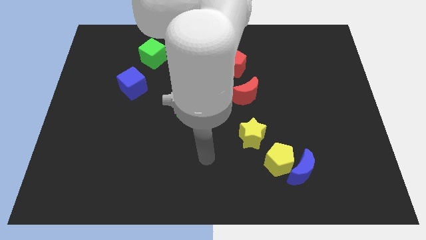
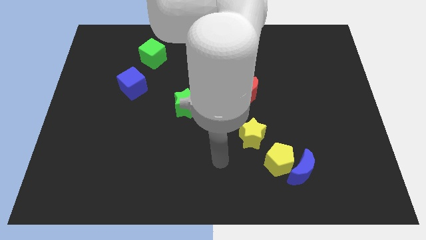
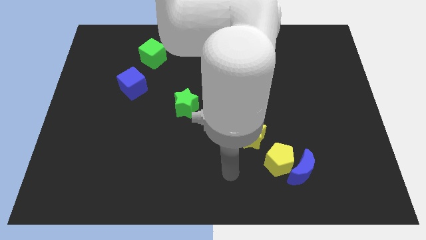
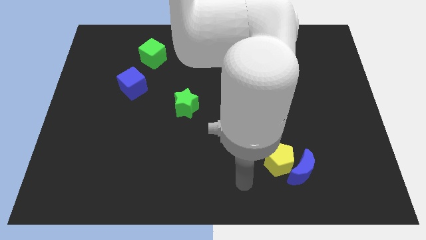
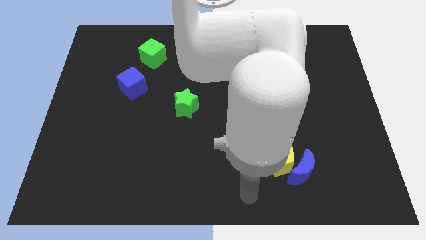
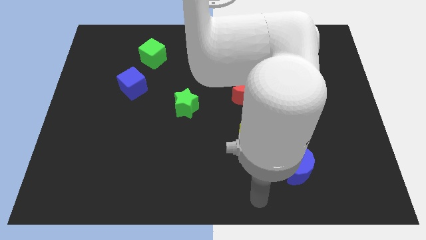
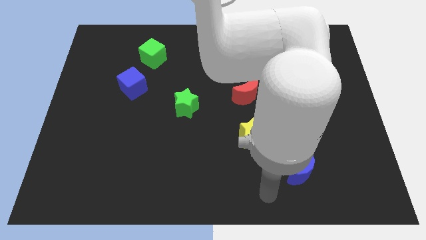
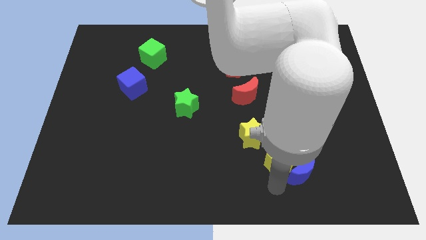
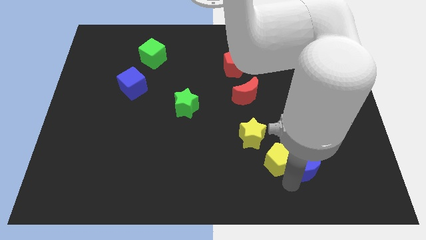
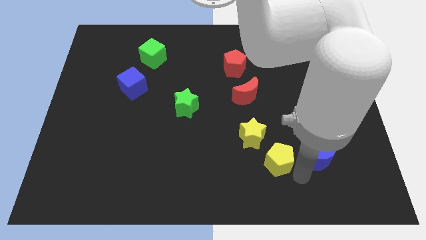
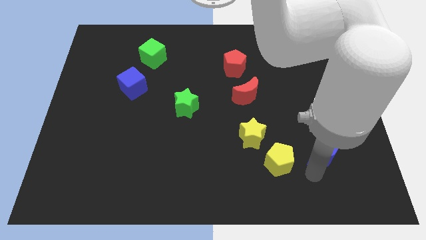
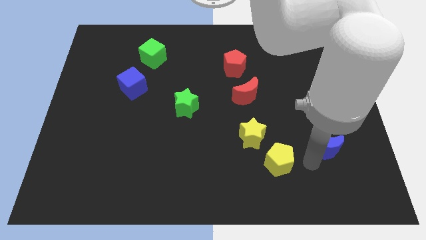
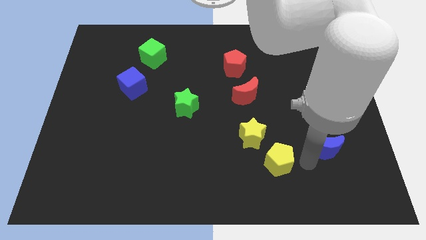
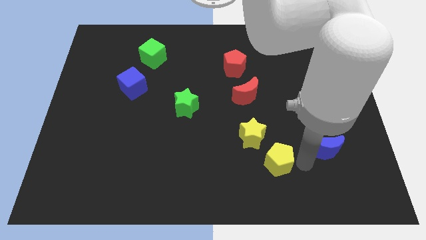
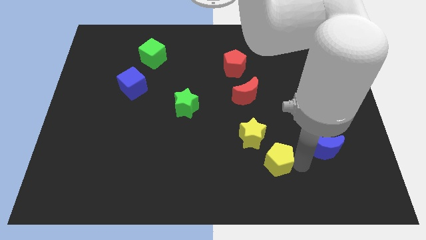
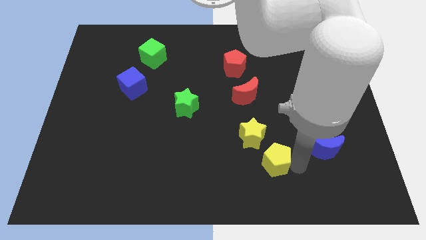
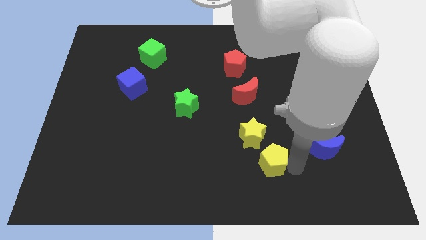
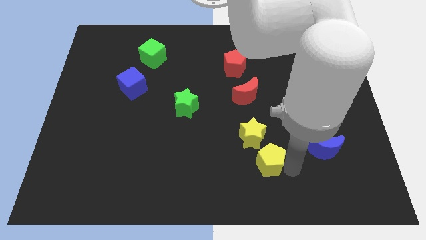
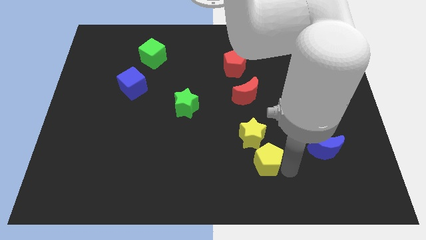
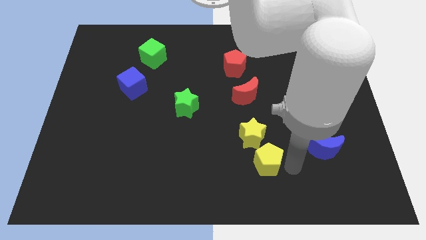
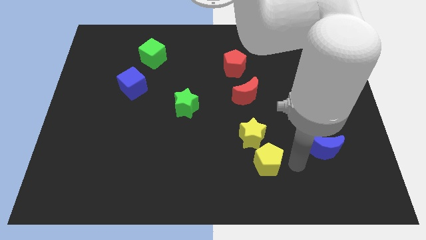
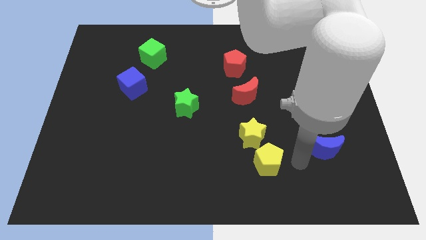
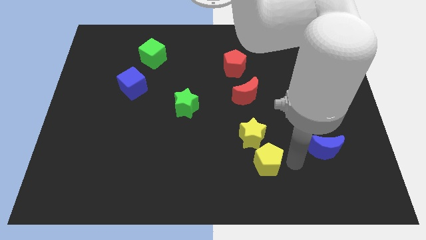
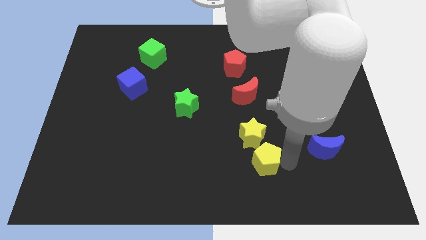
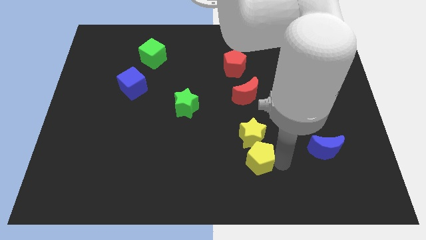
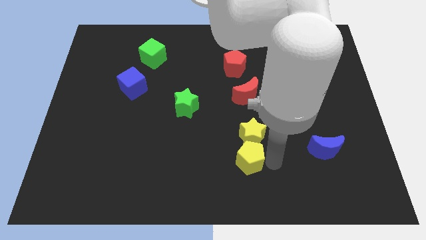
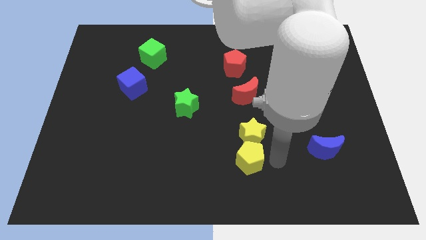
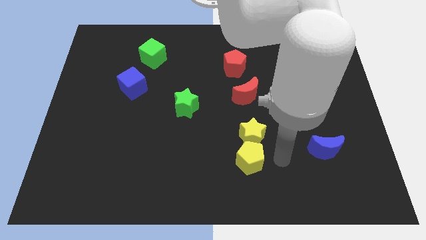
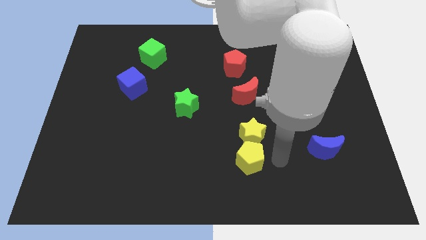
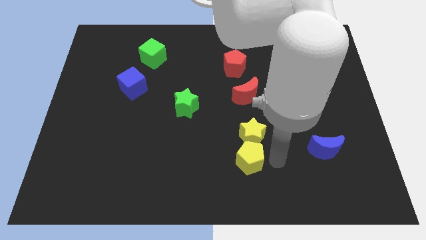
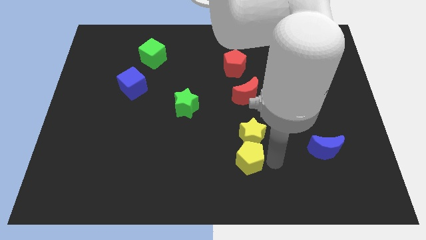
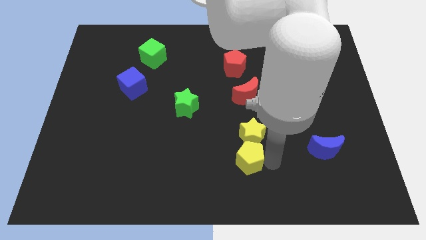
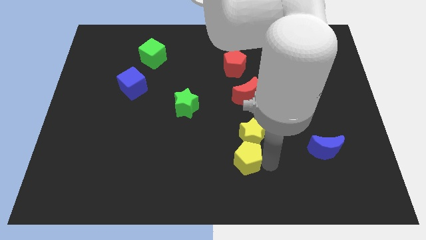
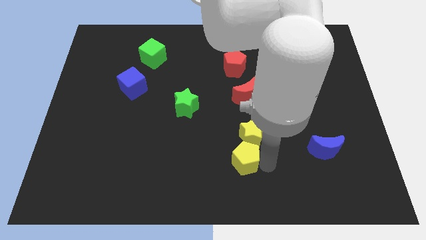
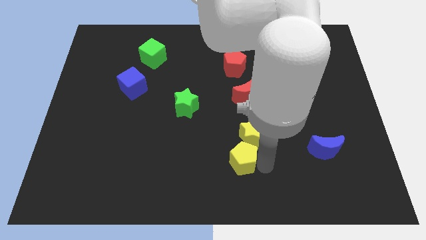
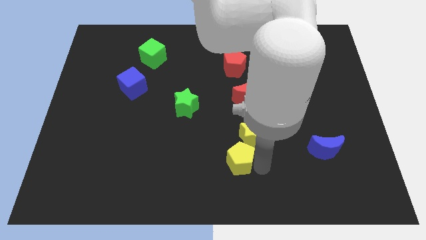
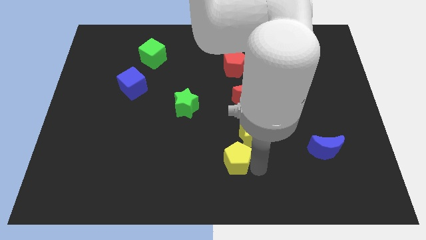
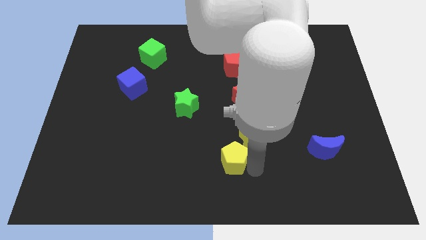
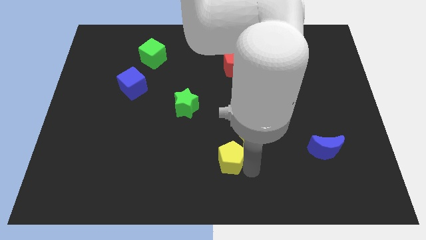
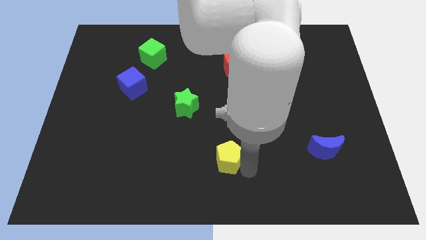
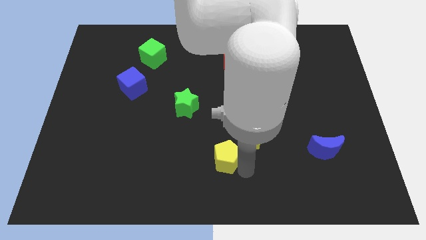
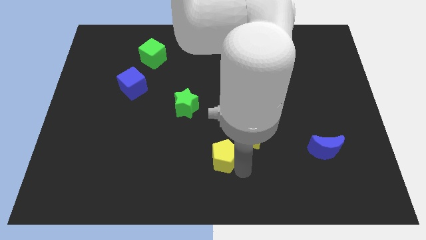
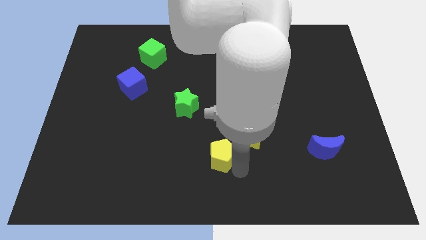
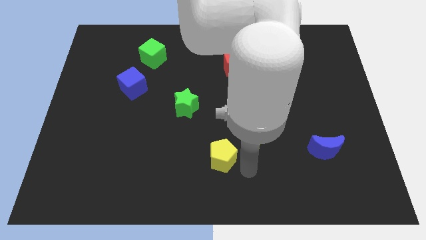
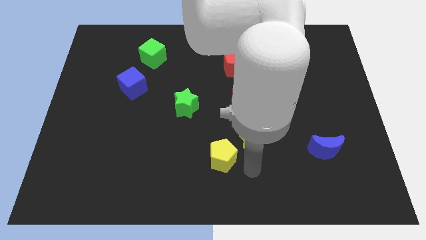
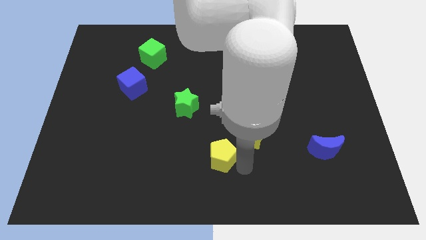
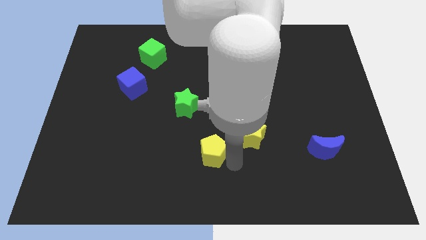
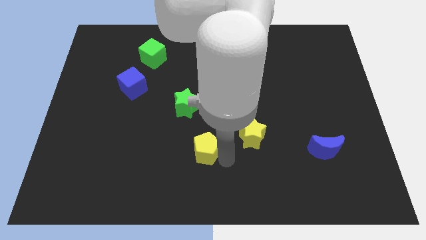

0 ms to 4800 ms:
put the yellow pentagon to the bottom side of the green star

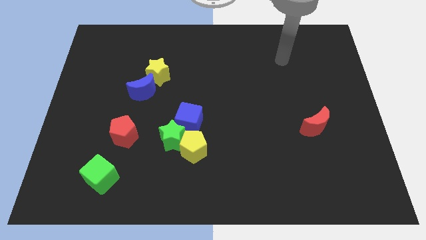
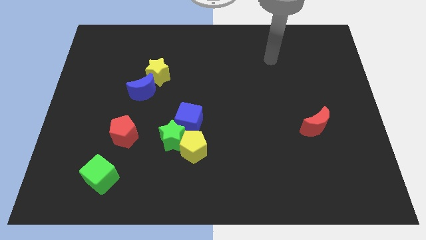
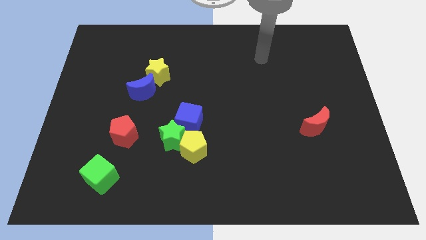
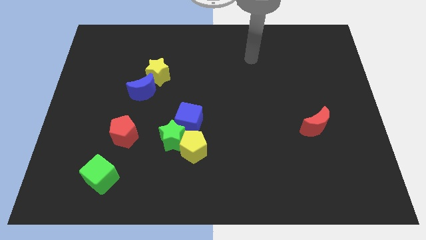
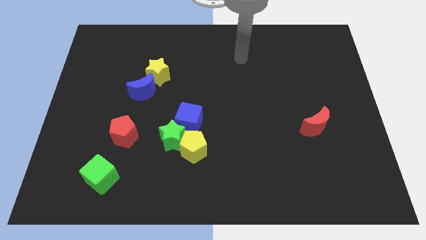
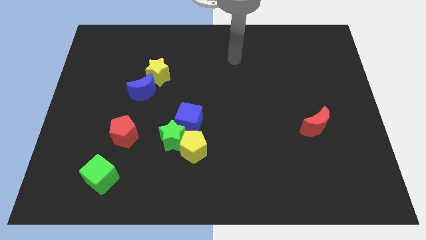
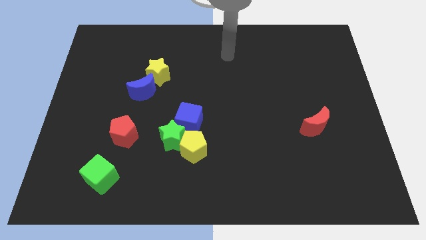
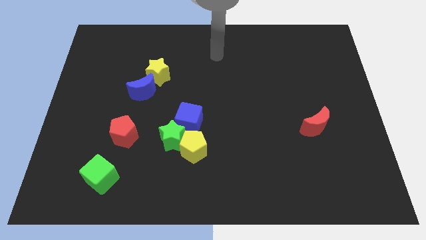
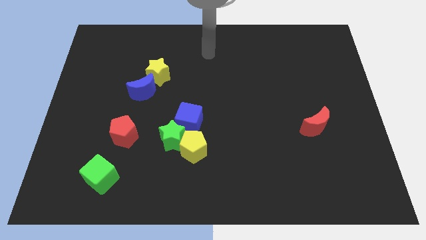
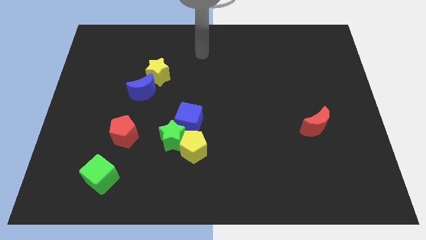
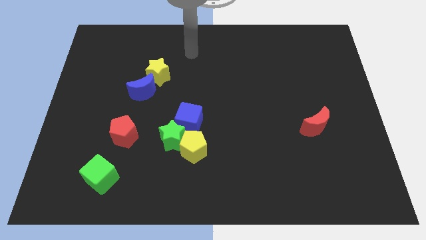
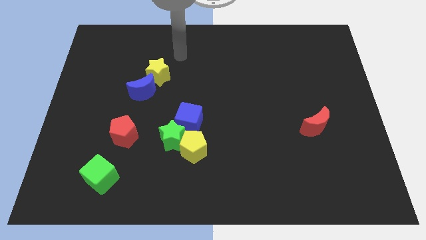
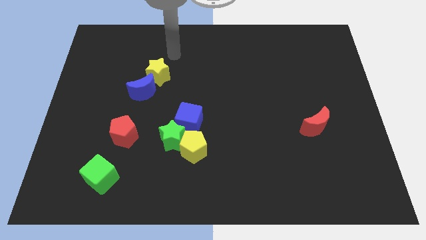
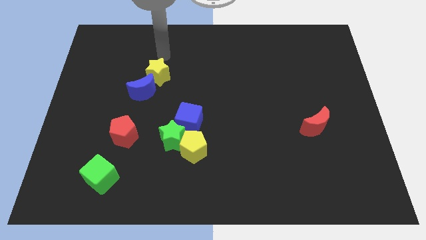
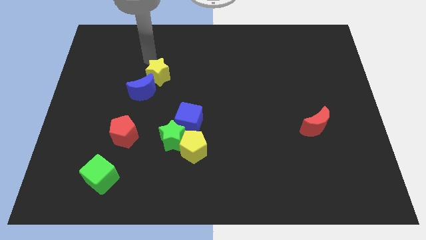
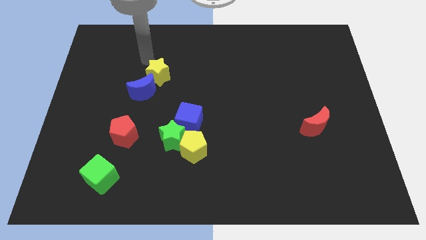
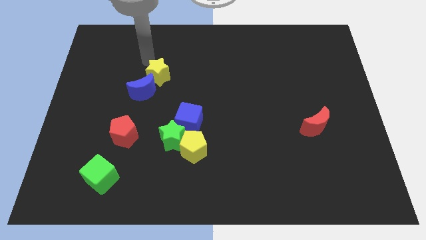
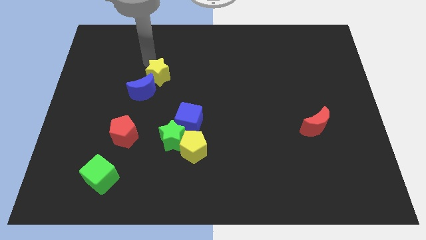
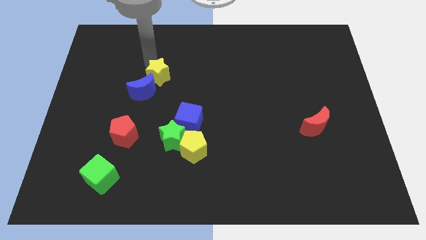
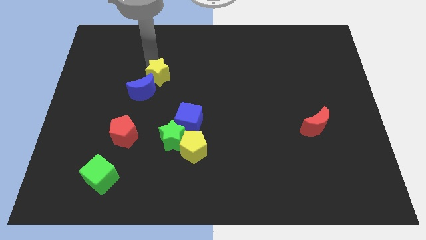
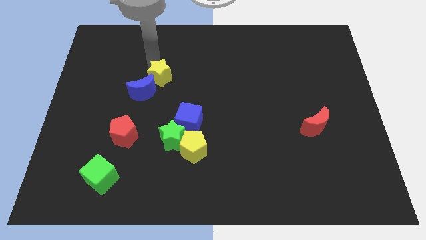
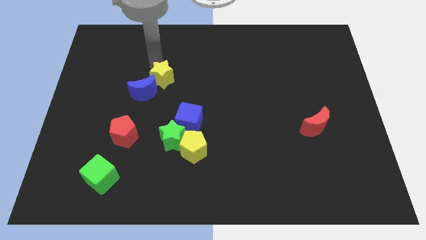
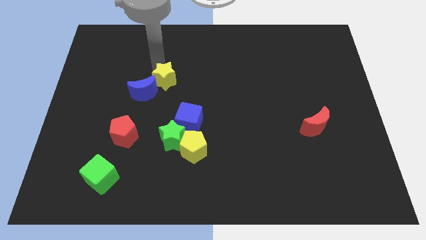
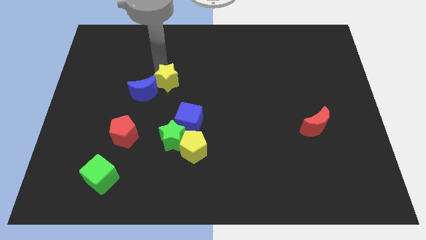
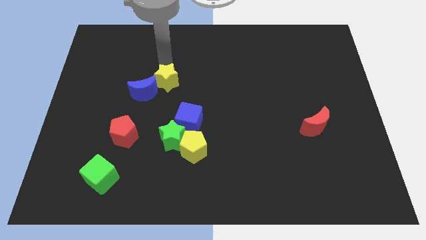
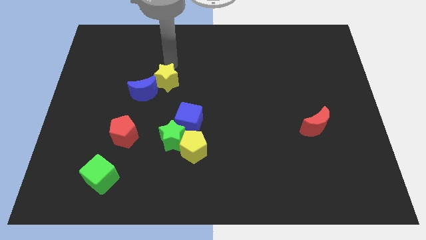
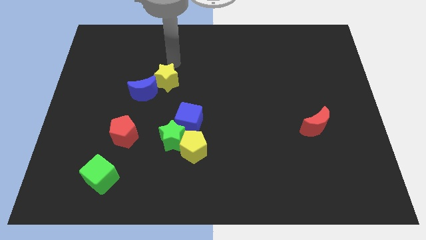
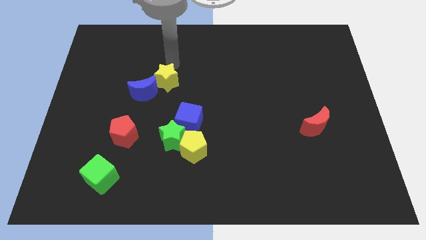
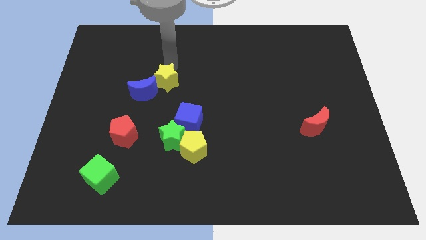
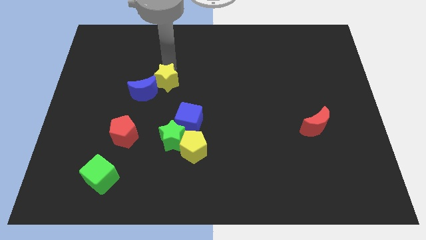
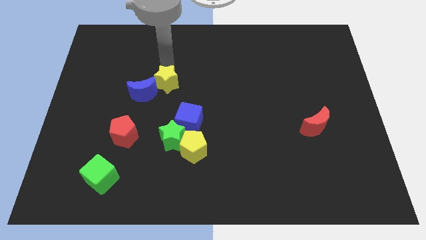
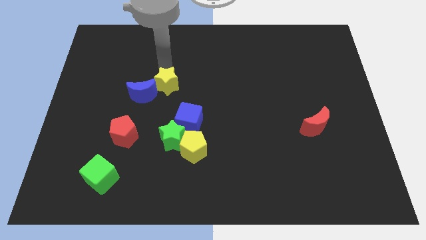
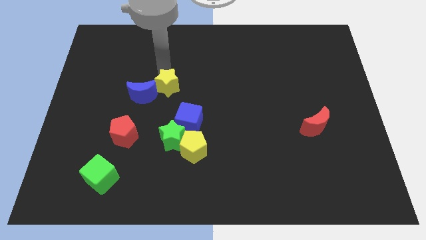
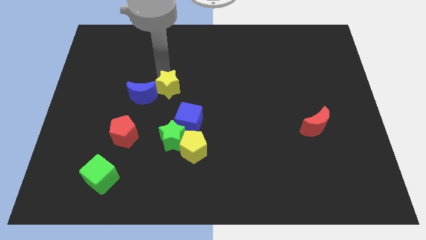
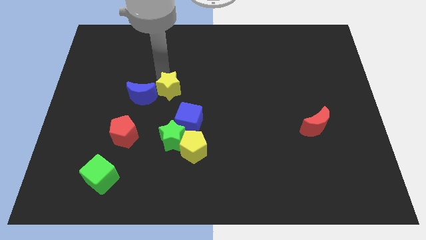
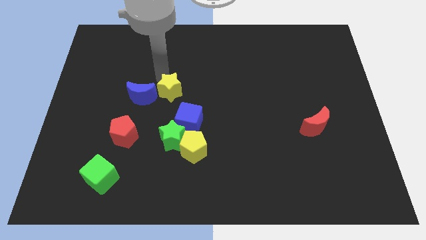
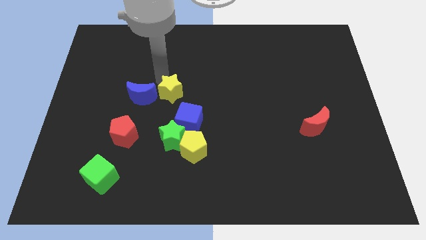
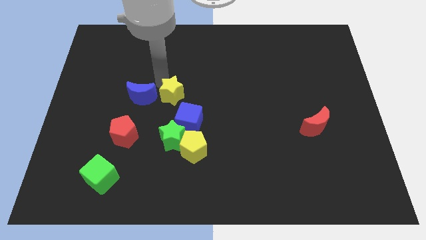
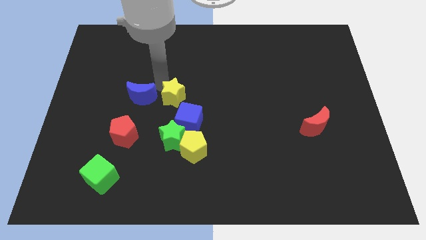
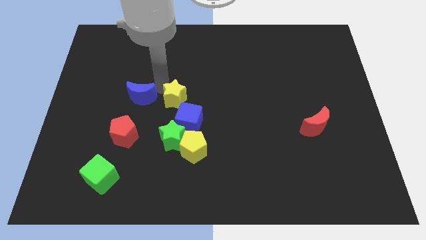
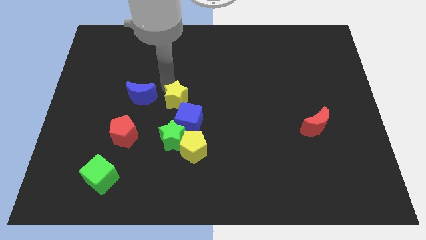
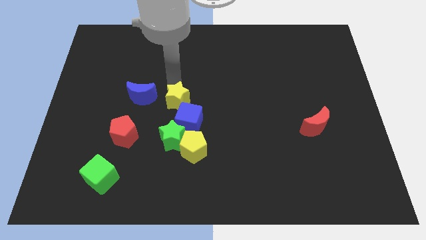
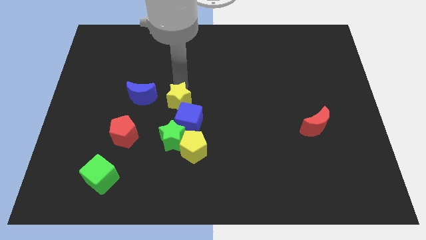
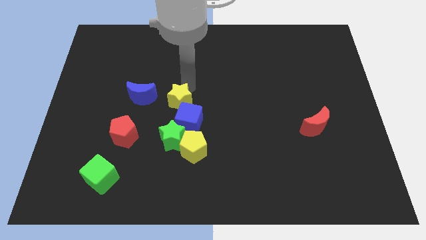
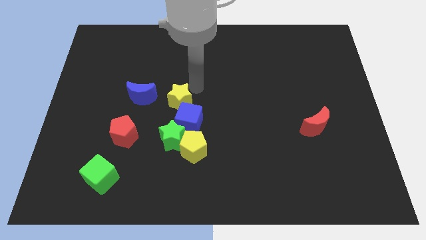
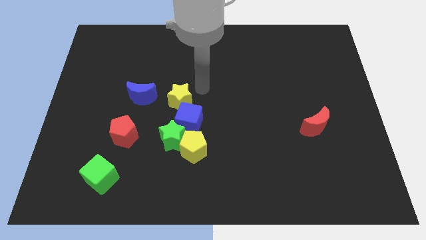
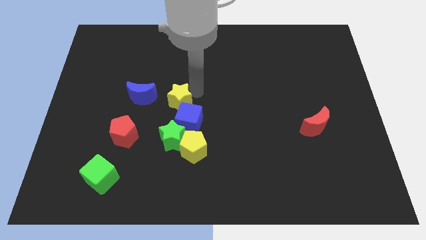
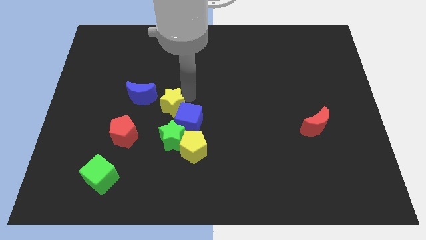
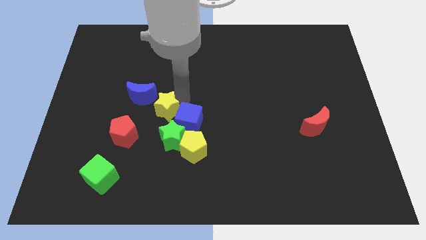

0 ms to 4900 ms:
put the yellow star to the top right side of the red pentagon
